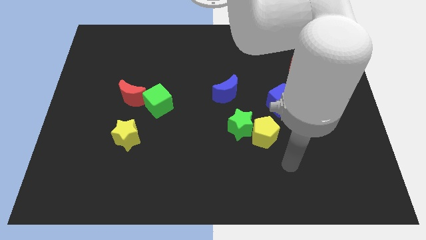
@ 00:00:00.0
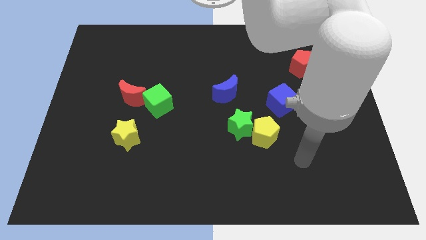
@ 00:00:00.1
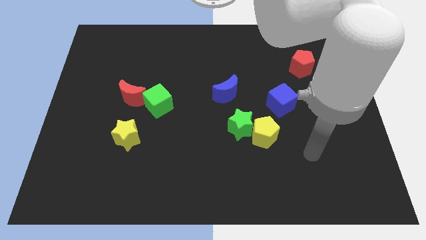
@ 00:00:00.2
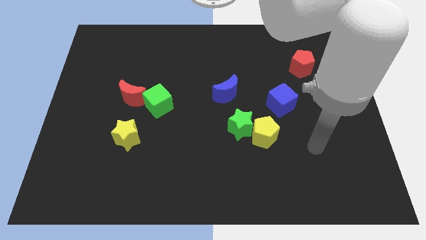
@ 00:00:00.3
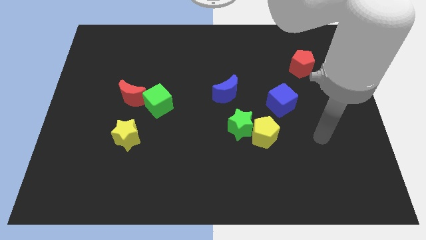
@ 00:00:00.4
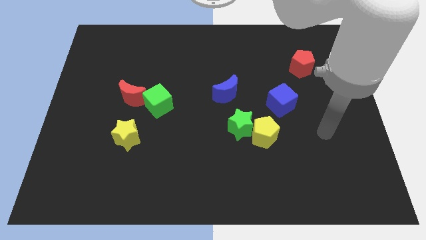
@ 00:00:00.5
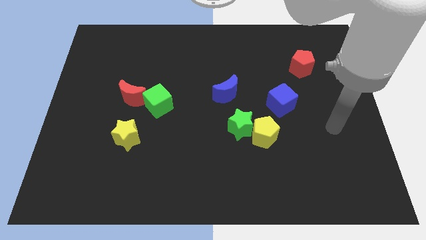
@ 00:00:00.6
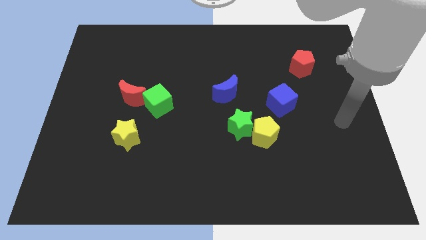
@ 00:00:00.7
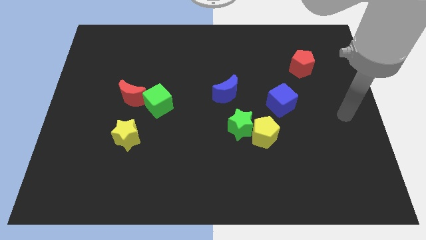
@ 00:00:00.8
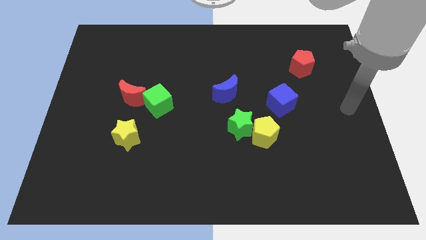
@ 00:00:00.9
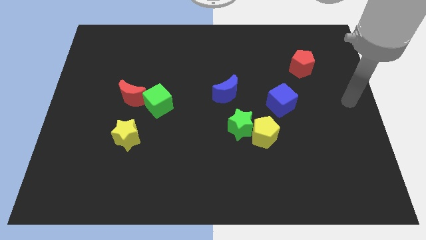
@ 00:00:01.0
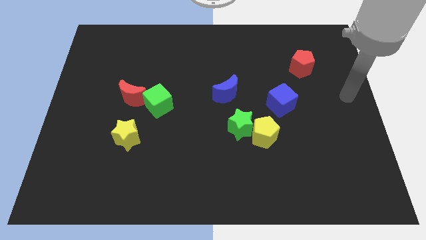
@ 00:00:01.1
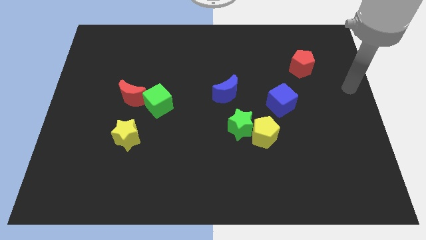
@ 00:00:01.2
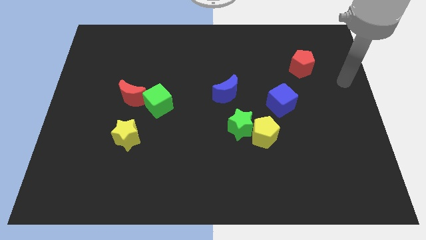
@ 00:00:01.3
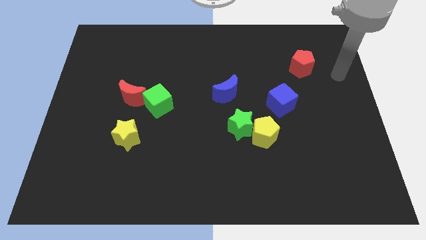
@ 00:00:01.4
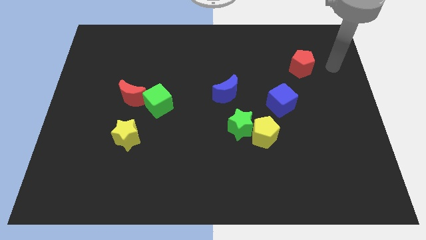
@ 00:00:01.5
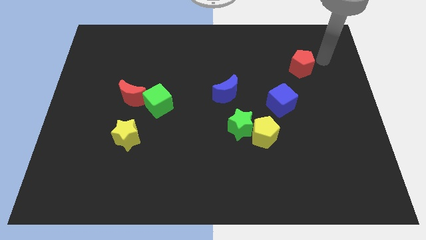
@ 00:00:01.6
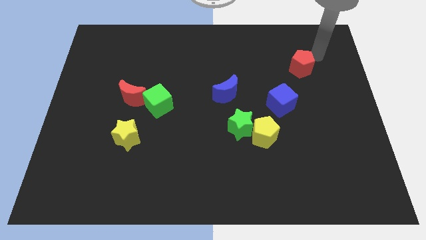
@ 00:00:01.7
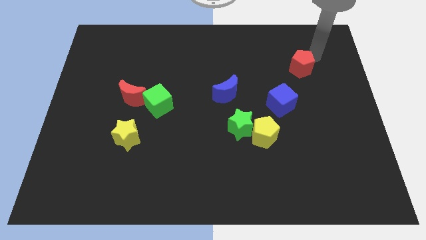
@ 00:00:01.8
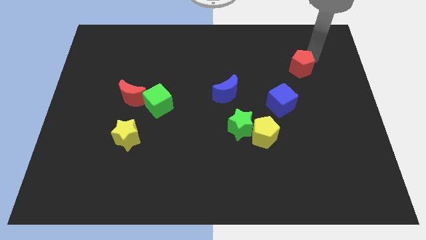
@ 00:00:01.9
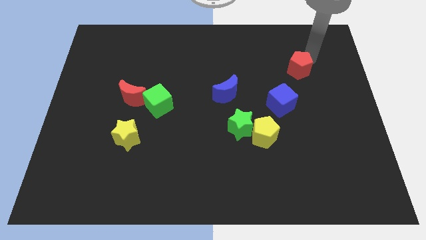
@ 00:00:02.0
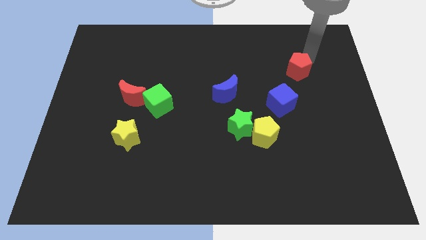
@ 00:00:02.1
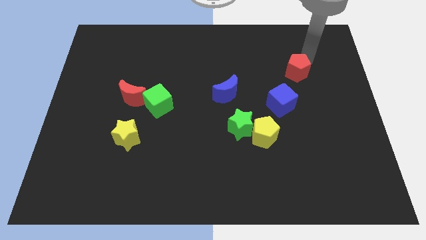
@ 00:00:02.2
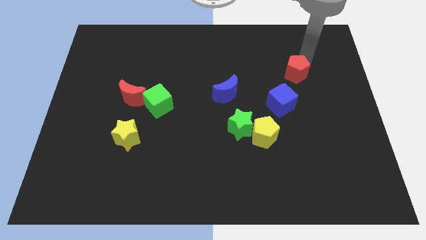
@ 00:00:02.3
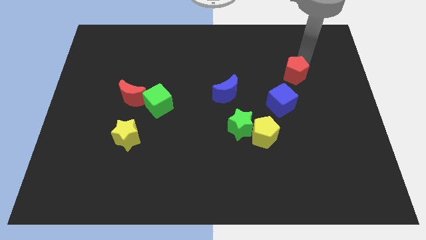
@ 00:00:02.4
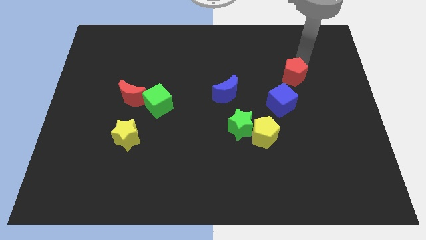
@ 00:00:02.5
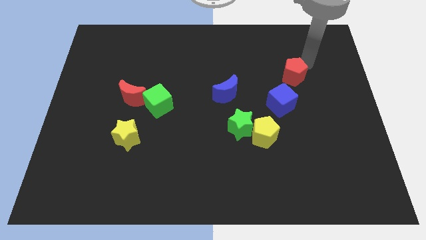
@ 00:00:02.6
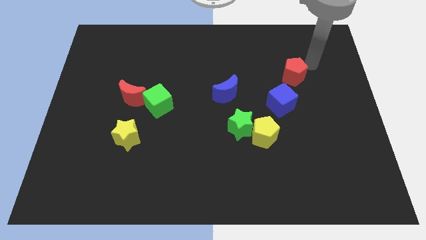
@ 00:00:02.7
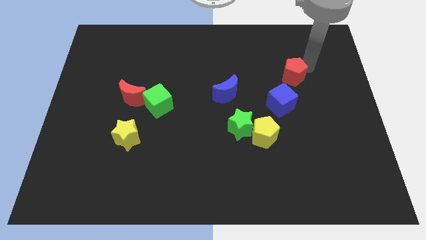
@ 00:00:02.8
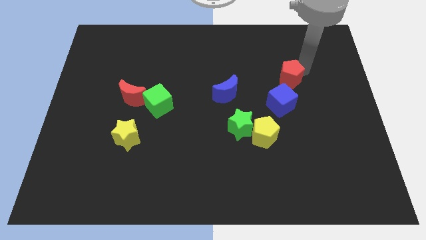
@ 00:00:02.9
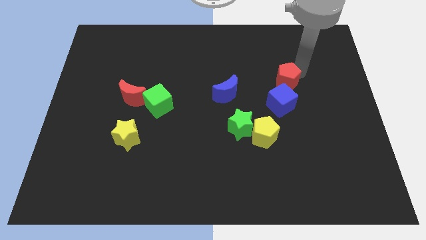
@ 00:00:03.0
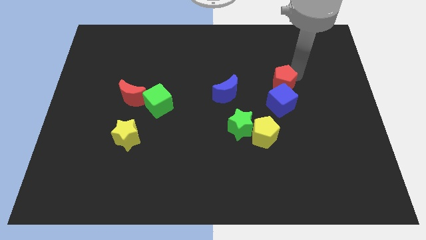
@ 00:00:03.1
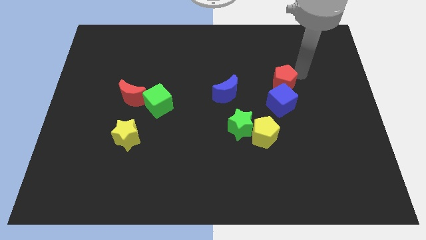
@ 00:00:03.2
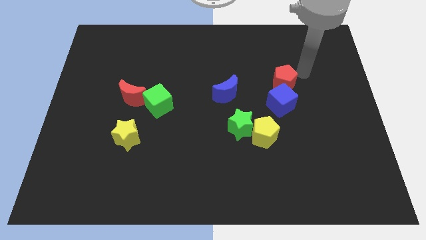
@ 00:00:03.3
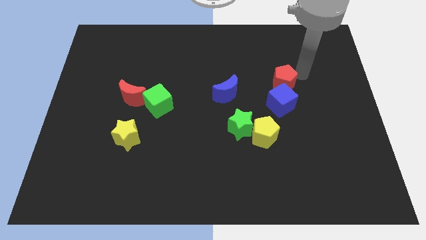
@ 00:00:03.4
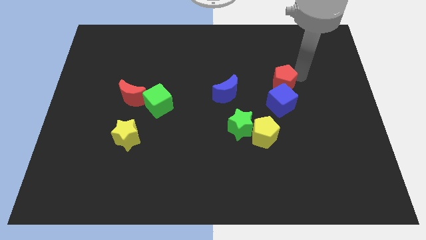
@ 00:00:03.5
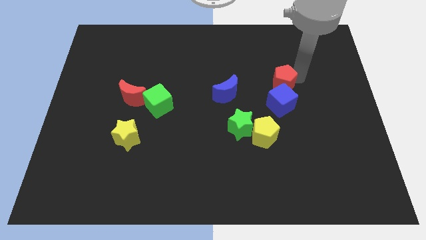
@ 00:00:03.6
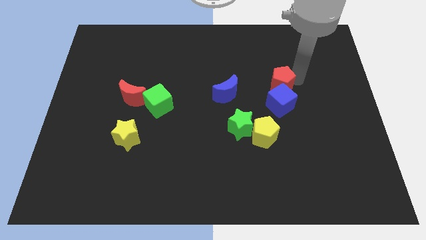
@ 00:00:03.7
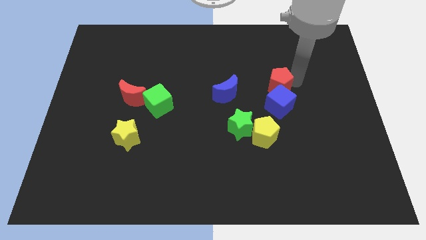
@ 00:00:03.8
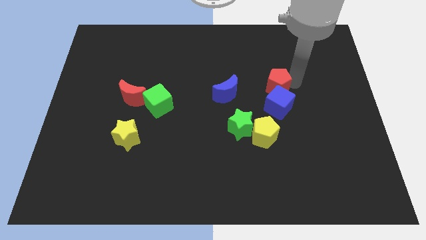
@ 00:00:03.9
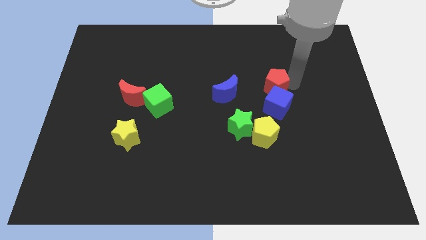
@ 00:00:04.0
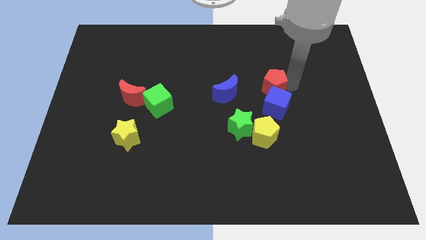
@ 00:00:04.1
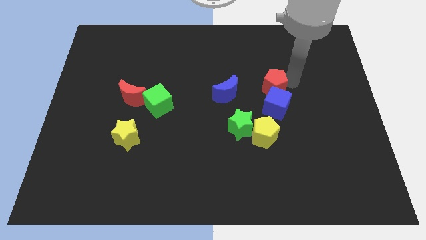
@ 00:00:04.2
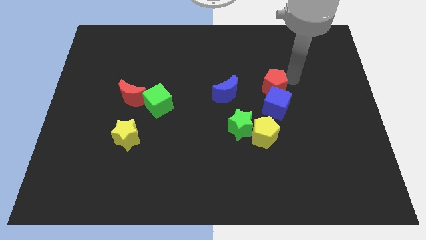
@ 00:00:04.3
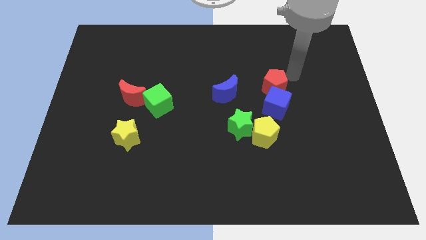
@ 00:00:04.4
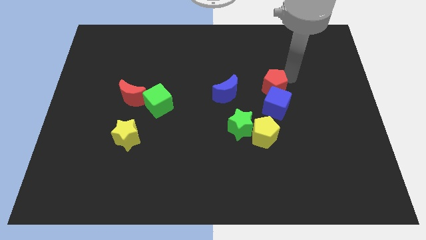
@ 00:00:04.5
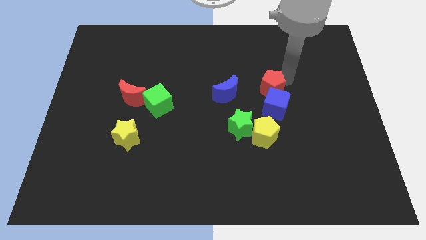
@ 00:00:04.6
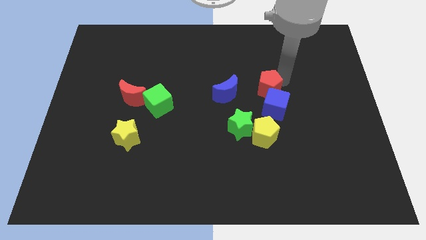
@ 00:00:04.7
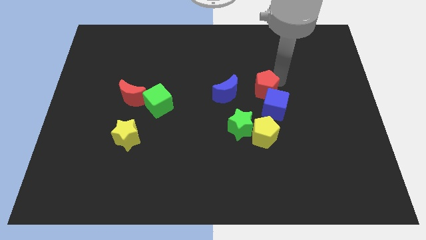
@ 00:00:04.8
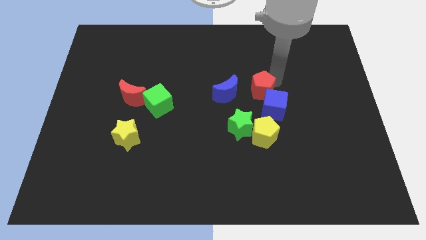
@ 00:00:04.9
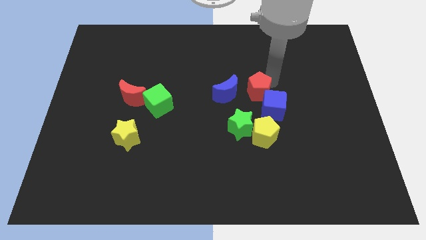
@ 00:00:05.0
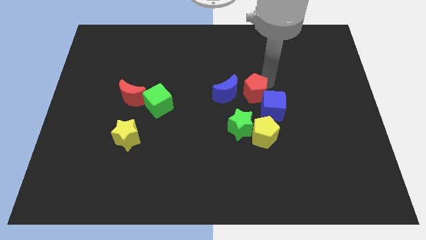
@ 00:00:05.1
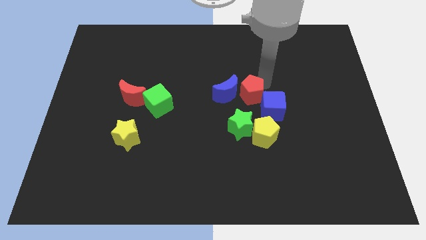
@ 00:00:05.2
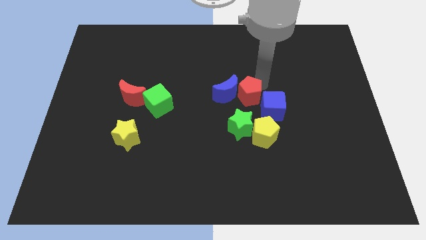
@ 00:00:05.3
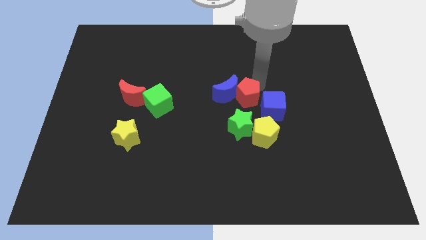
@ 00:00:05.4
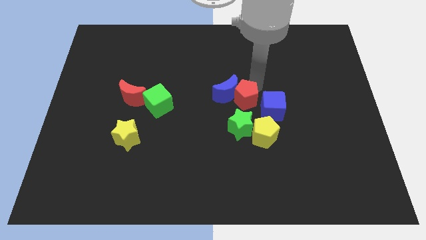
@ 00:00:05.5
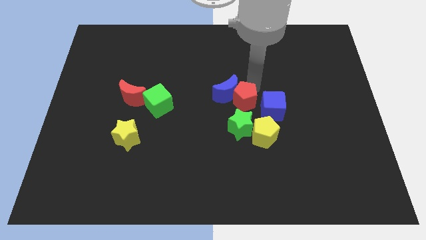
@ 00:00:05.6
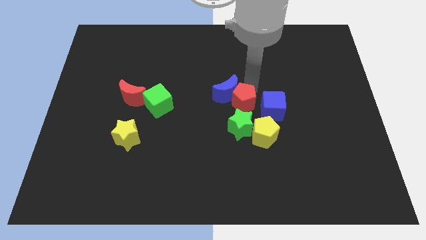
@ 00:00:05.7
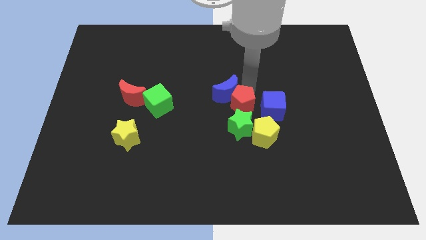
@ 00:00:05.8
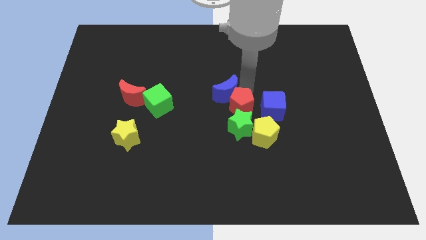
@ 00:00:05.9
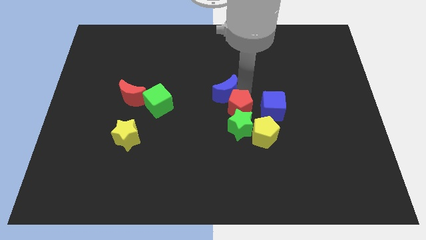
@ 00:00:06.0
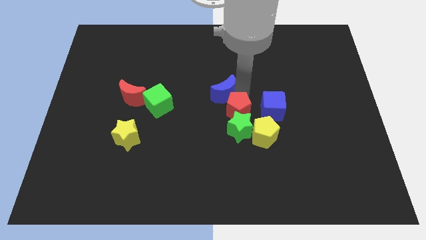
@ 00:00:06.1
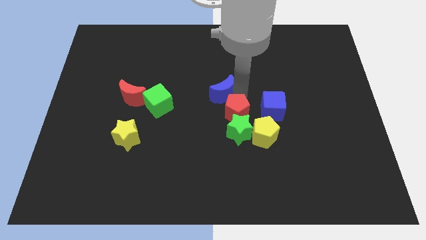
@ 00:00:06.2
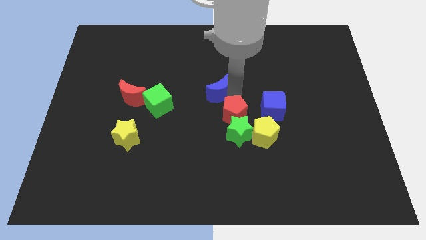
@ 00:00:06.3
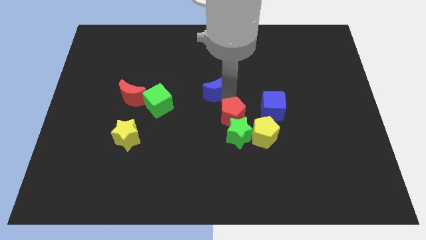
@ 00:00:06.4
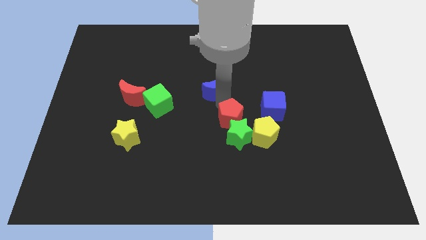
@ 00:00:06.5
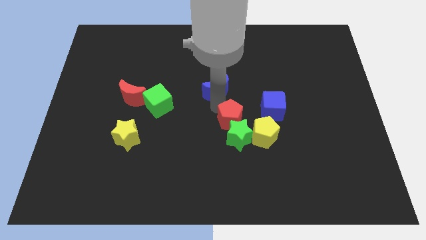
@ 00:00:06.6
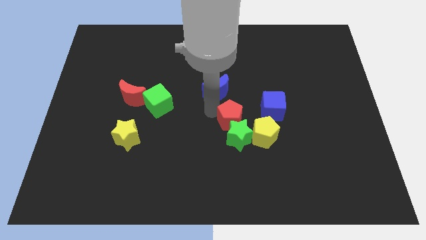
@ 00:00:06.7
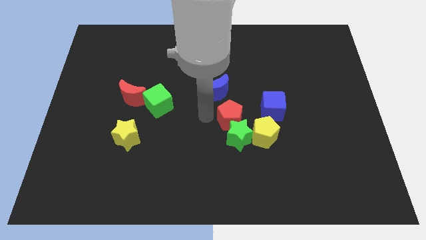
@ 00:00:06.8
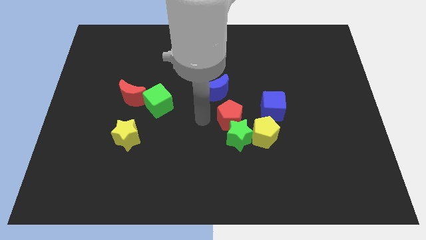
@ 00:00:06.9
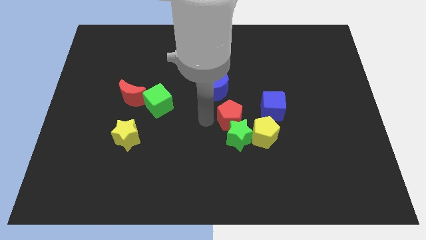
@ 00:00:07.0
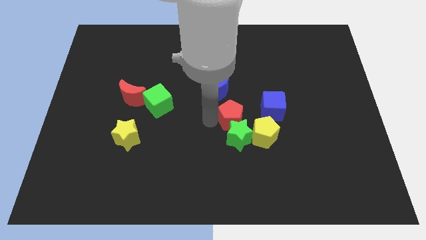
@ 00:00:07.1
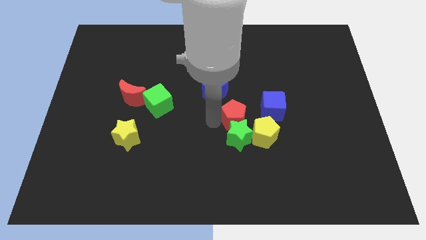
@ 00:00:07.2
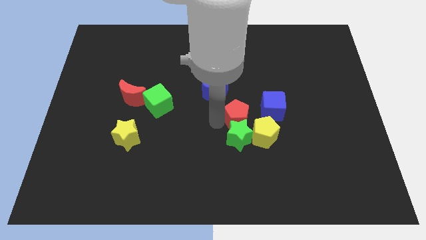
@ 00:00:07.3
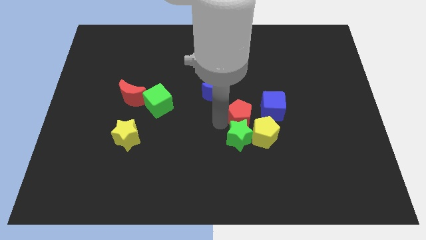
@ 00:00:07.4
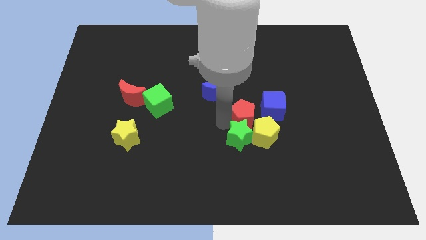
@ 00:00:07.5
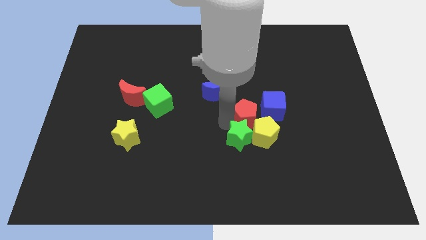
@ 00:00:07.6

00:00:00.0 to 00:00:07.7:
push the red pentagon next to the yellow pentagon
